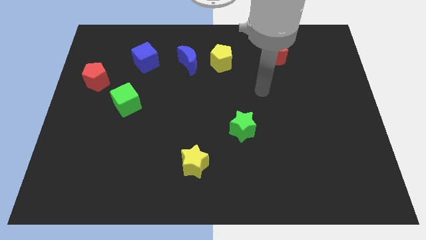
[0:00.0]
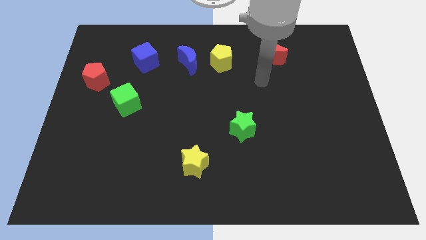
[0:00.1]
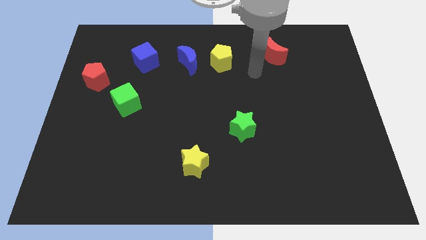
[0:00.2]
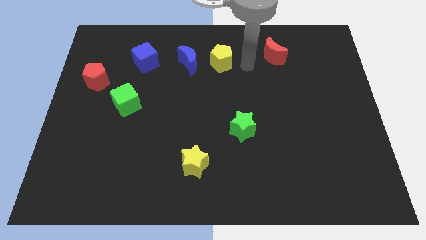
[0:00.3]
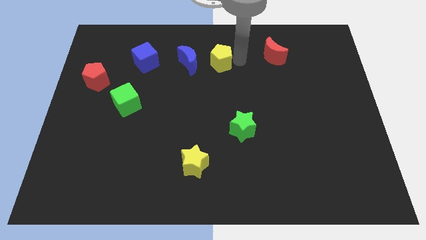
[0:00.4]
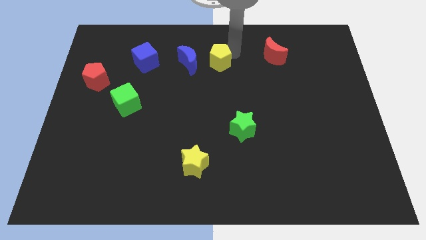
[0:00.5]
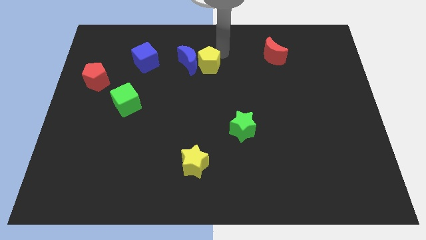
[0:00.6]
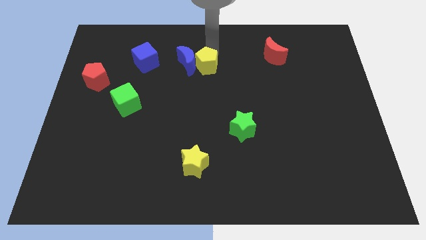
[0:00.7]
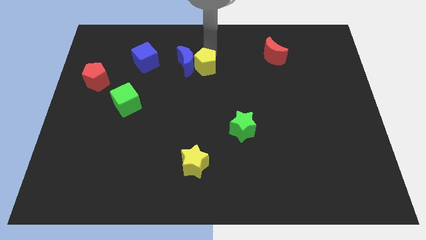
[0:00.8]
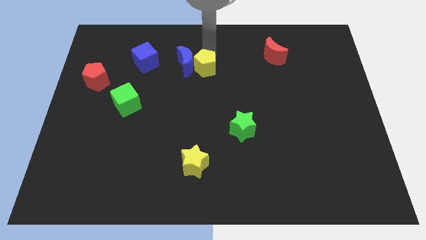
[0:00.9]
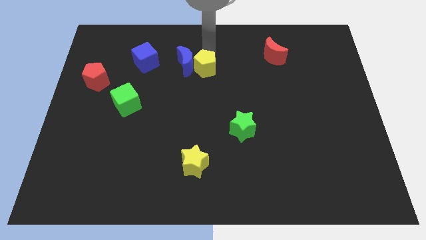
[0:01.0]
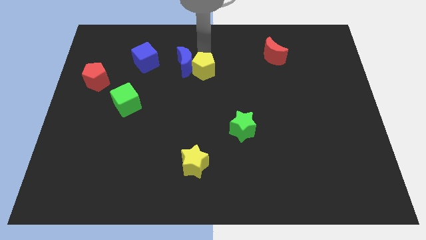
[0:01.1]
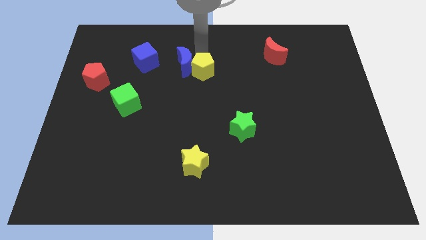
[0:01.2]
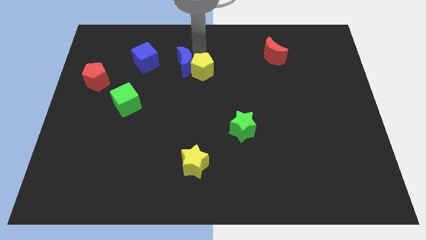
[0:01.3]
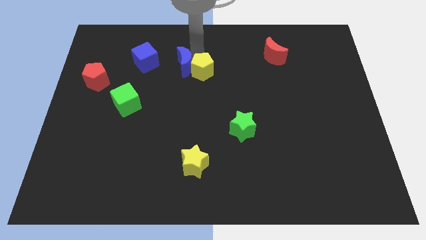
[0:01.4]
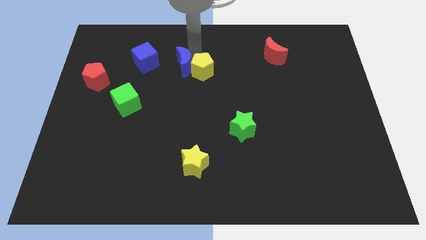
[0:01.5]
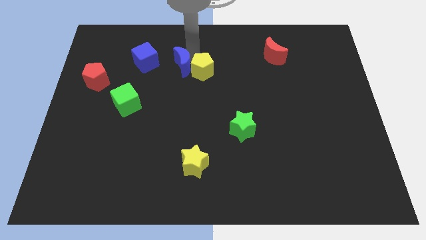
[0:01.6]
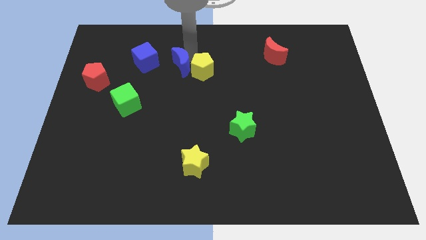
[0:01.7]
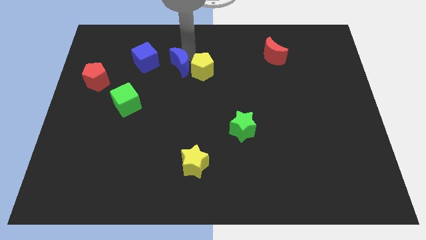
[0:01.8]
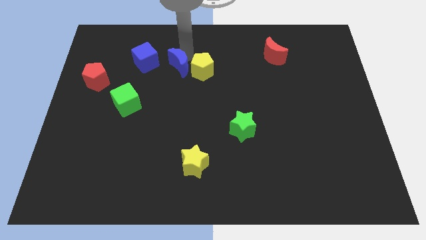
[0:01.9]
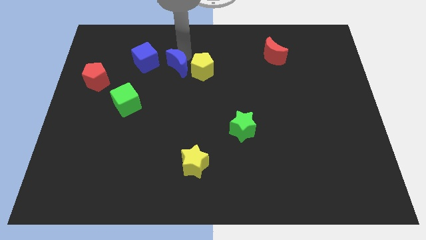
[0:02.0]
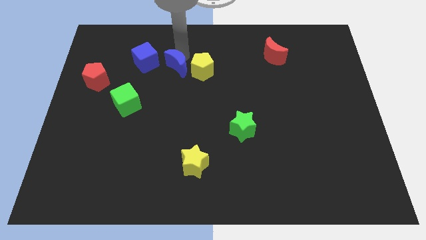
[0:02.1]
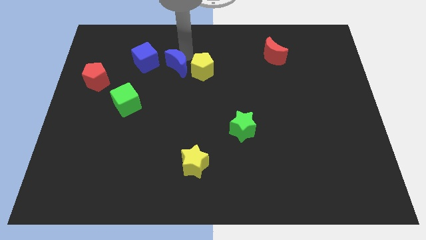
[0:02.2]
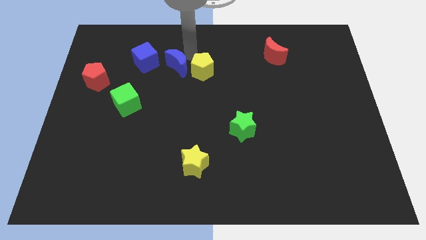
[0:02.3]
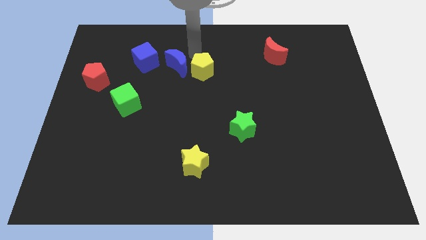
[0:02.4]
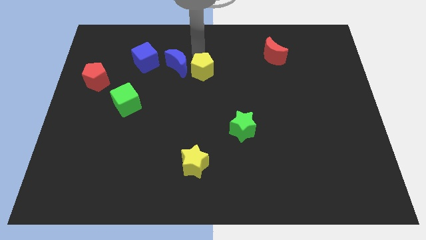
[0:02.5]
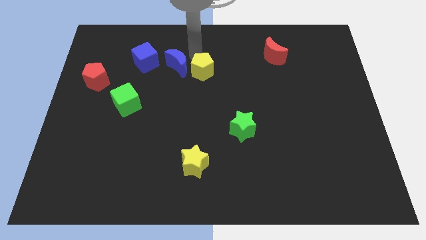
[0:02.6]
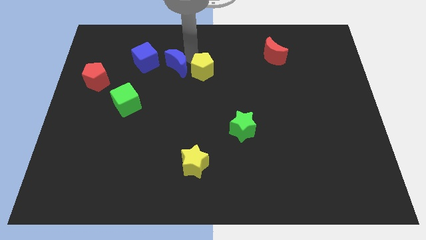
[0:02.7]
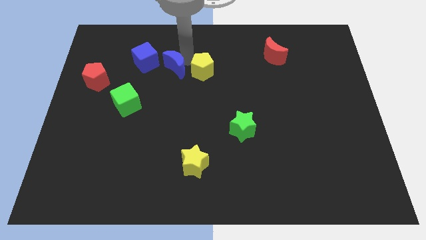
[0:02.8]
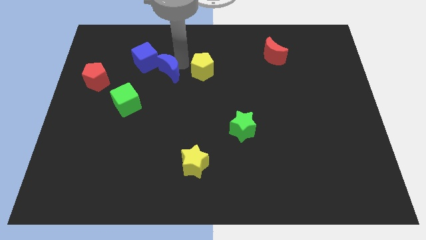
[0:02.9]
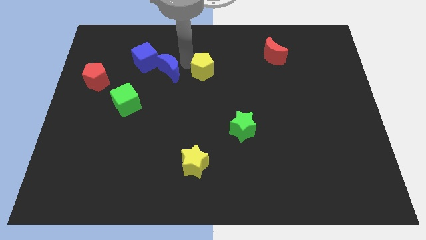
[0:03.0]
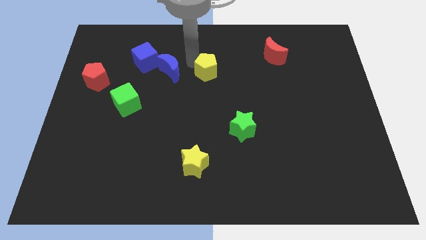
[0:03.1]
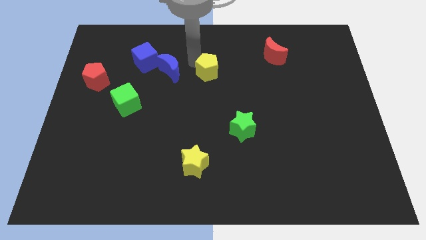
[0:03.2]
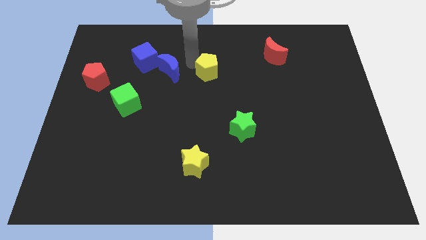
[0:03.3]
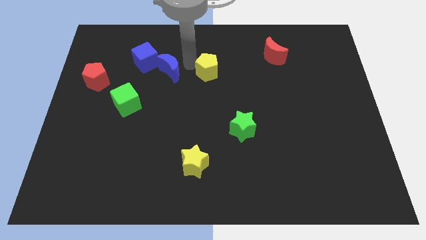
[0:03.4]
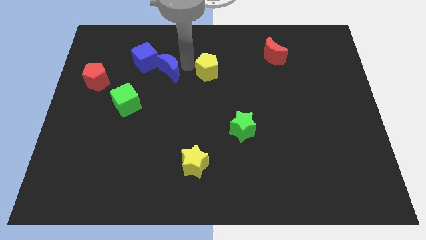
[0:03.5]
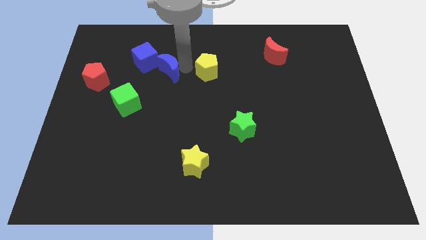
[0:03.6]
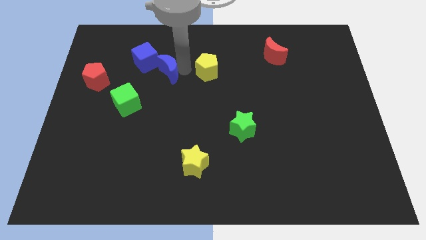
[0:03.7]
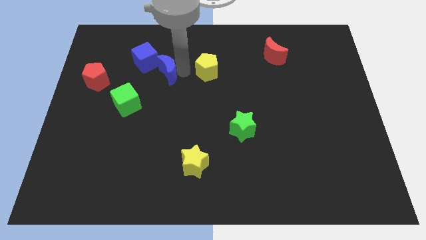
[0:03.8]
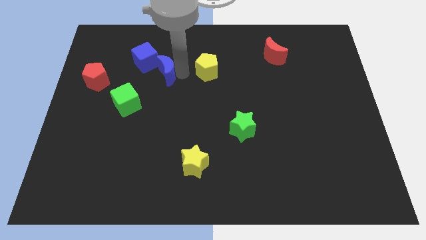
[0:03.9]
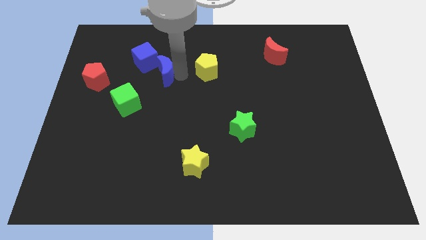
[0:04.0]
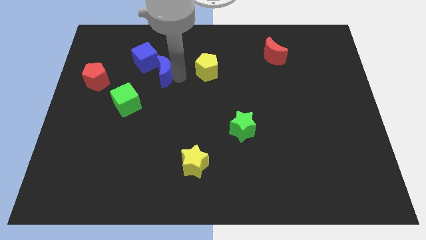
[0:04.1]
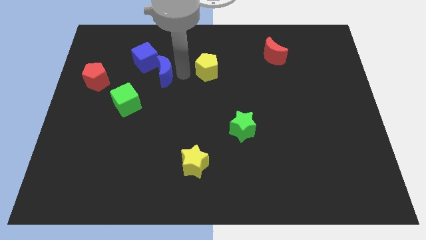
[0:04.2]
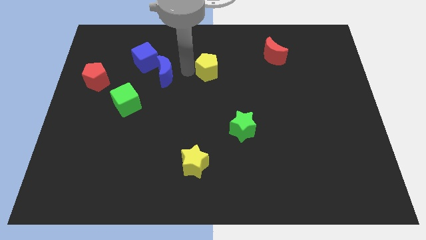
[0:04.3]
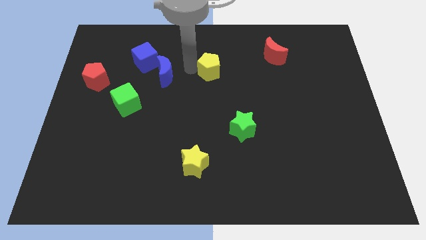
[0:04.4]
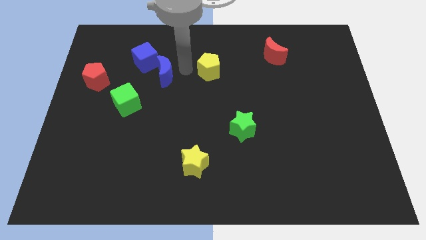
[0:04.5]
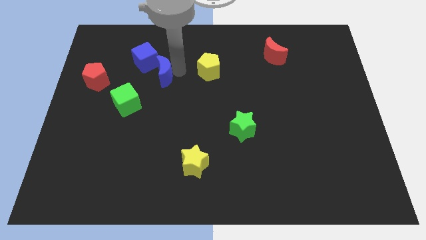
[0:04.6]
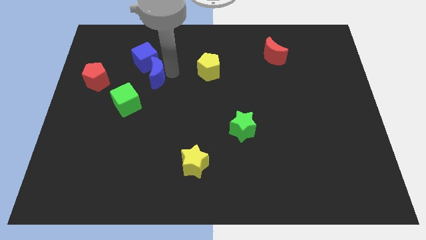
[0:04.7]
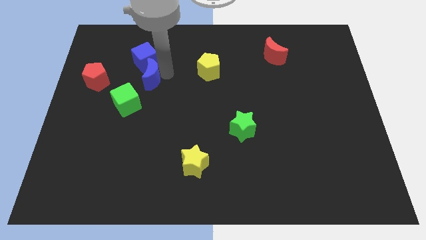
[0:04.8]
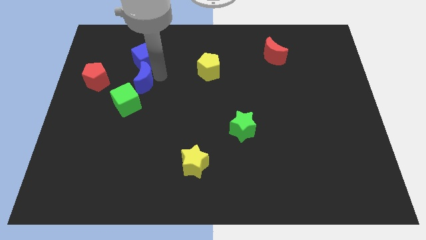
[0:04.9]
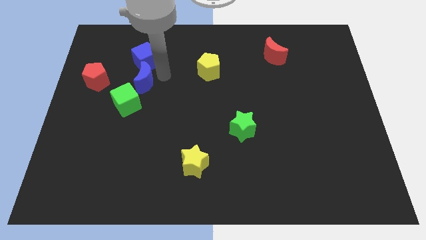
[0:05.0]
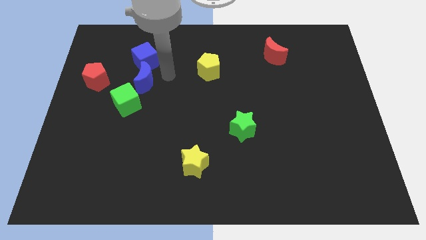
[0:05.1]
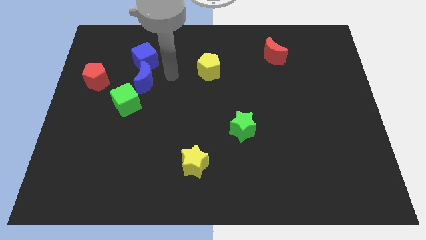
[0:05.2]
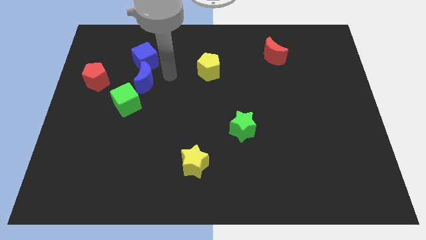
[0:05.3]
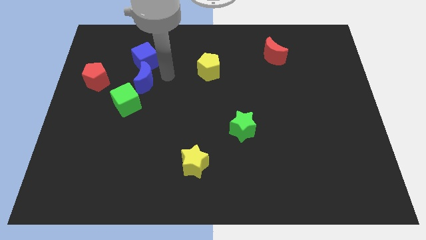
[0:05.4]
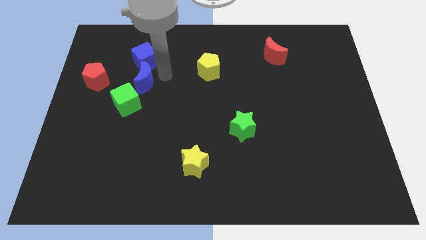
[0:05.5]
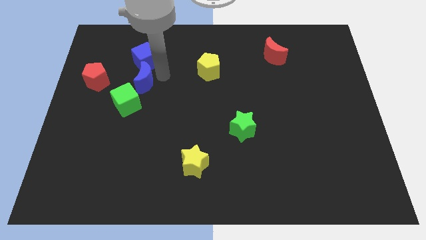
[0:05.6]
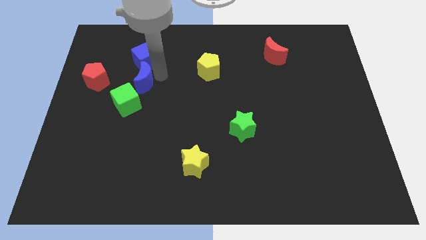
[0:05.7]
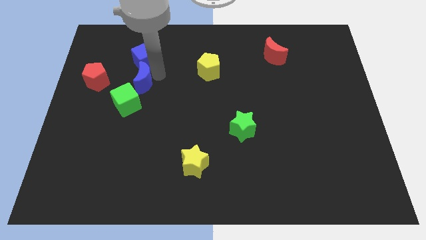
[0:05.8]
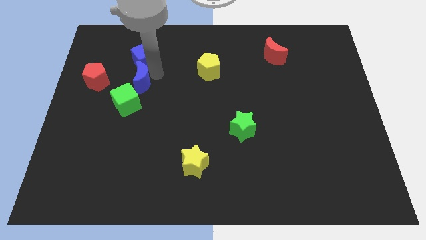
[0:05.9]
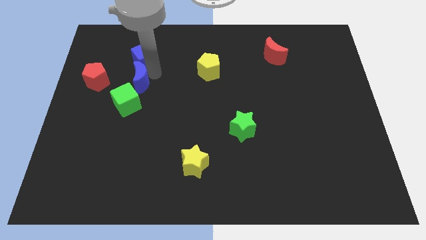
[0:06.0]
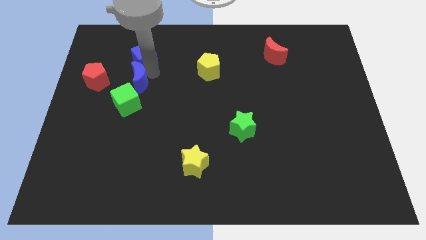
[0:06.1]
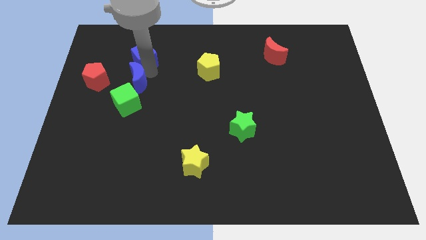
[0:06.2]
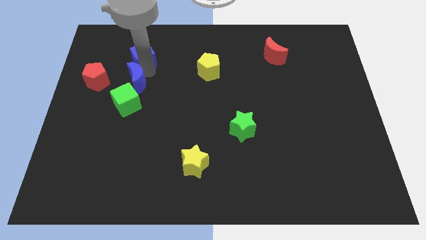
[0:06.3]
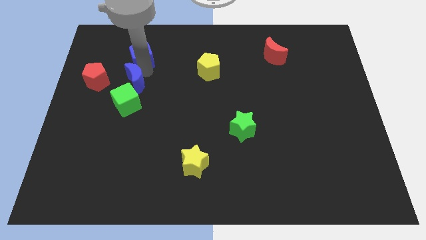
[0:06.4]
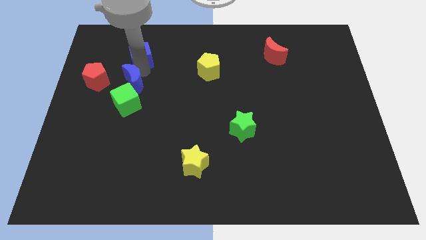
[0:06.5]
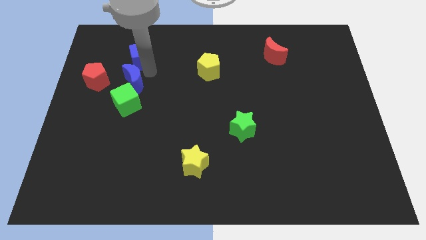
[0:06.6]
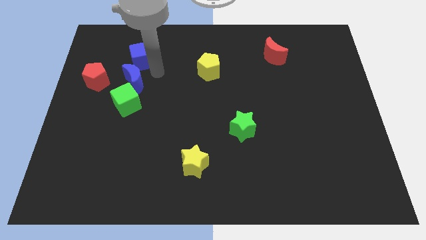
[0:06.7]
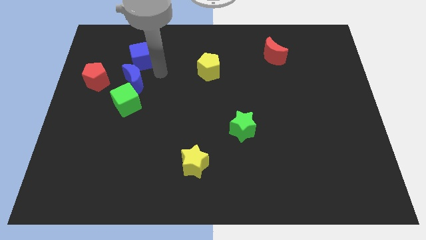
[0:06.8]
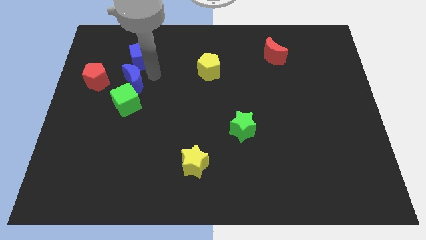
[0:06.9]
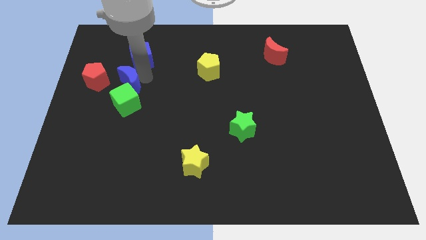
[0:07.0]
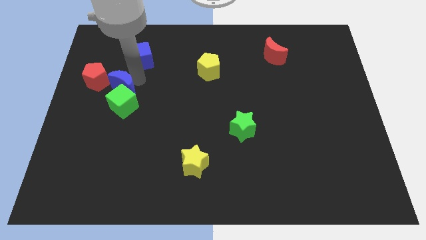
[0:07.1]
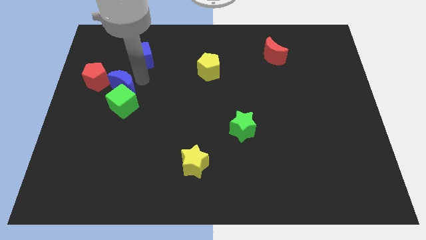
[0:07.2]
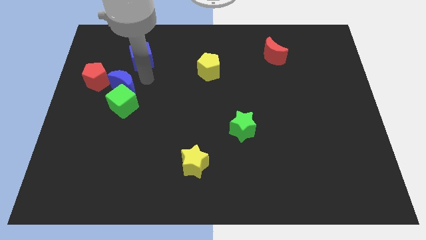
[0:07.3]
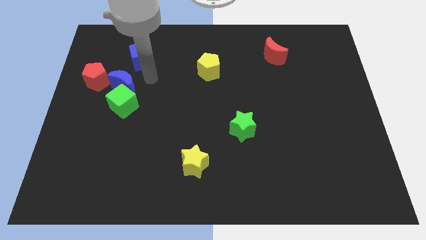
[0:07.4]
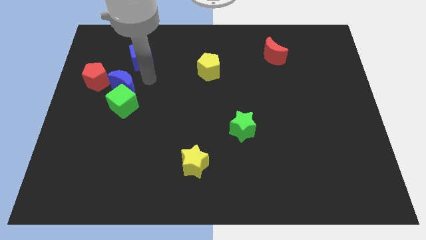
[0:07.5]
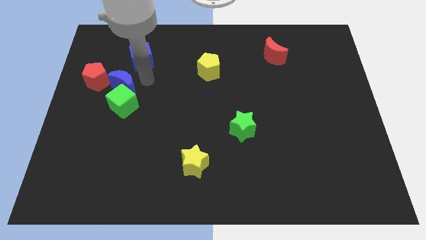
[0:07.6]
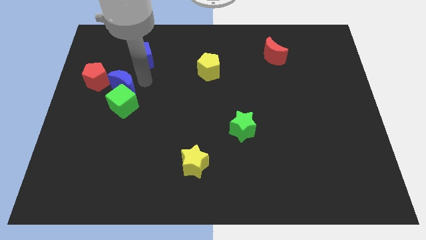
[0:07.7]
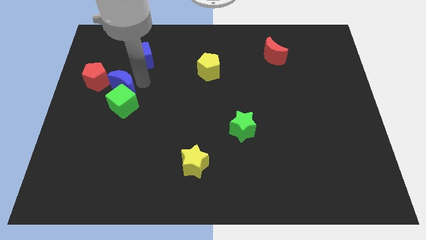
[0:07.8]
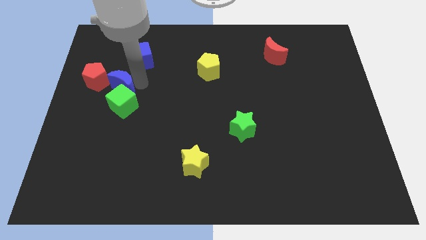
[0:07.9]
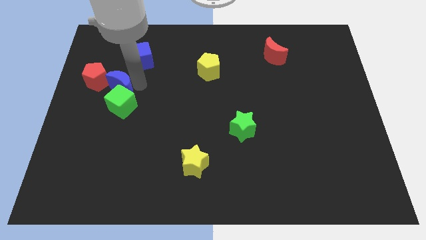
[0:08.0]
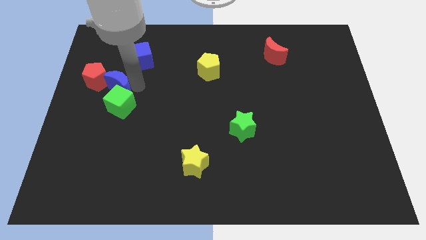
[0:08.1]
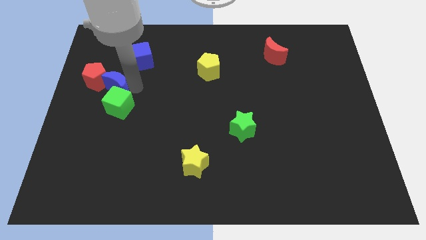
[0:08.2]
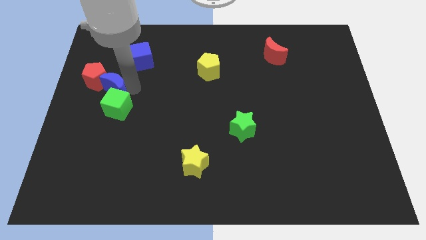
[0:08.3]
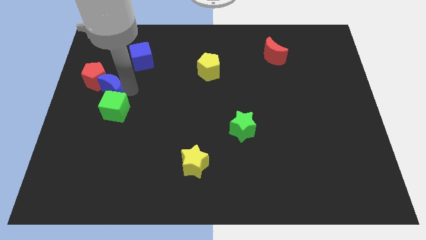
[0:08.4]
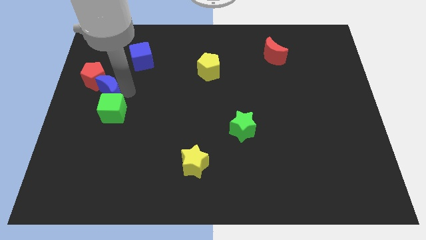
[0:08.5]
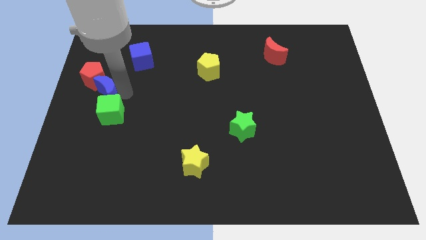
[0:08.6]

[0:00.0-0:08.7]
slide the blue moon to the left side
